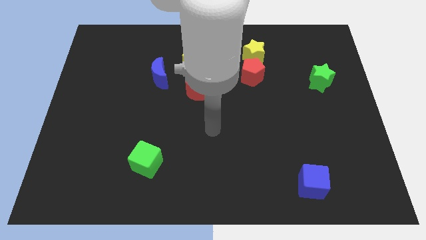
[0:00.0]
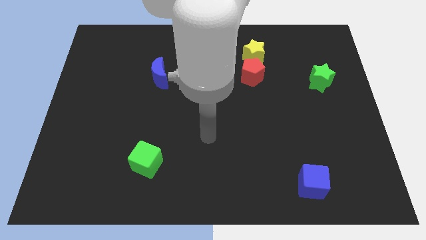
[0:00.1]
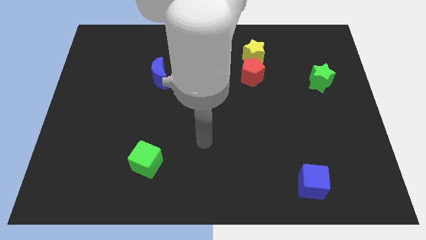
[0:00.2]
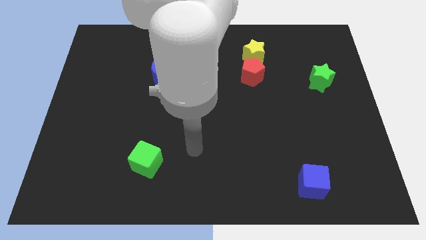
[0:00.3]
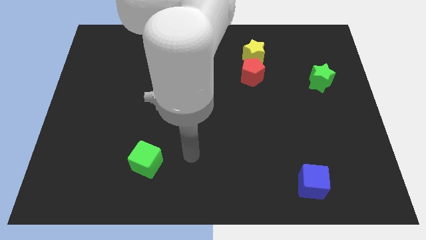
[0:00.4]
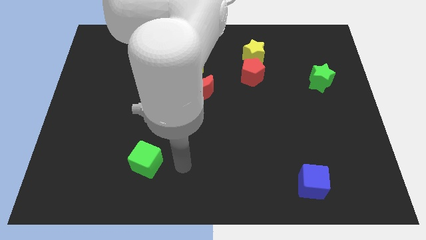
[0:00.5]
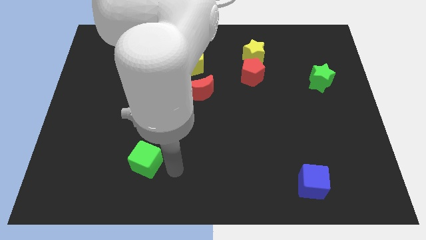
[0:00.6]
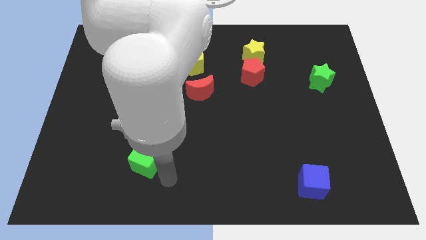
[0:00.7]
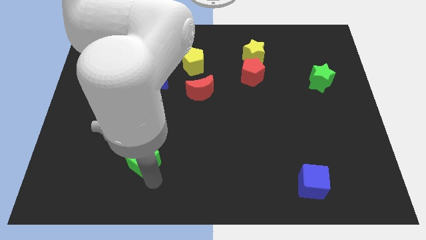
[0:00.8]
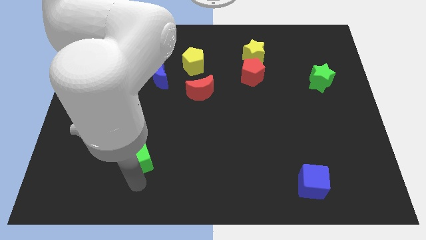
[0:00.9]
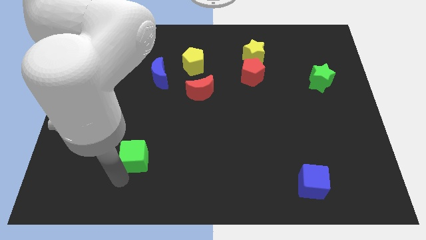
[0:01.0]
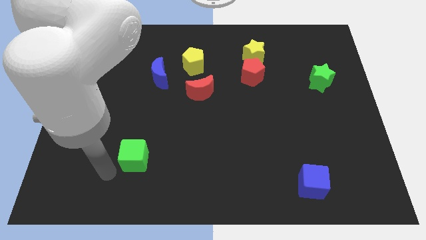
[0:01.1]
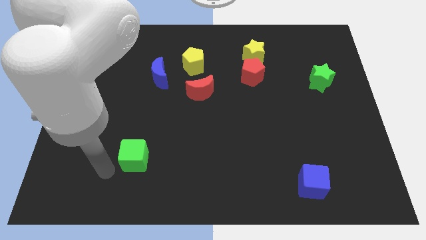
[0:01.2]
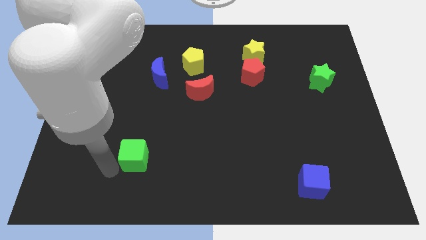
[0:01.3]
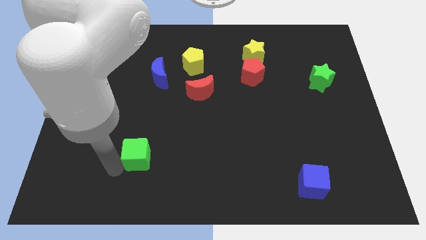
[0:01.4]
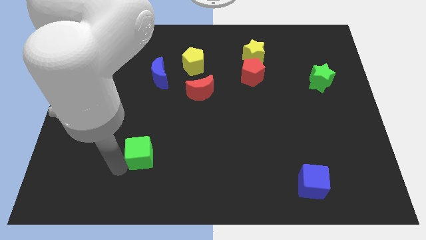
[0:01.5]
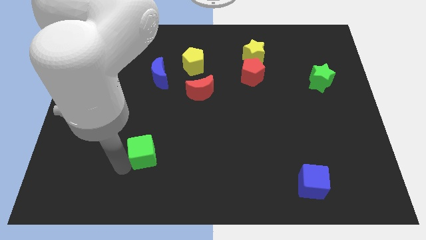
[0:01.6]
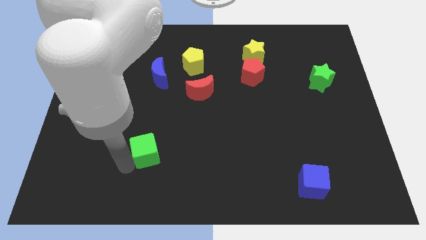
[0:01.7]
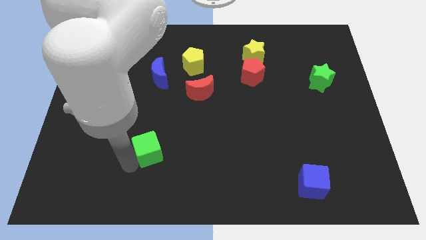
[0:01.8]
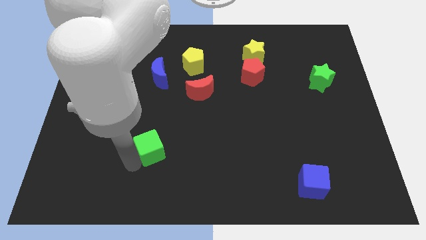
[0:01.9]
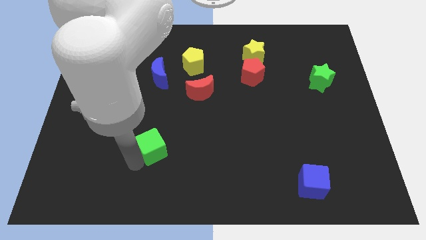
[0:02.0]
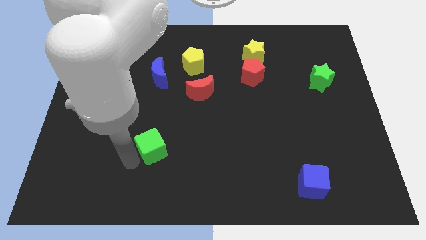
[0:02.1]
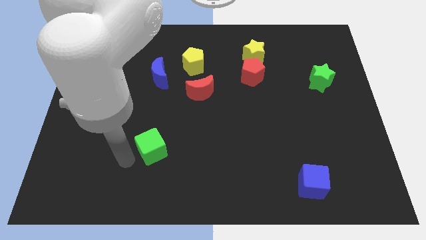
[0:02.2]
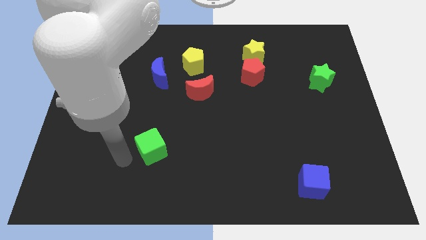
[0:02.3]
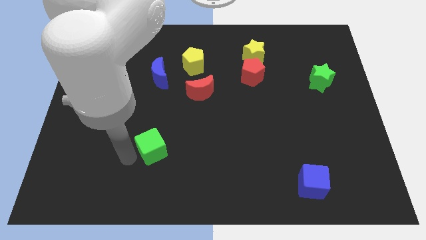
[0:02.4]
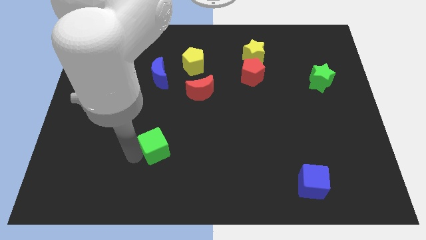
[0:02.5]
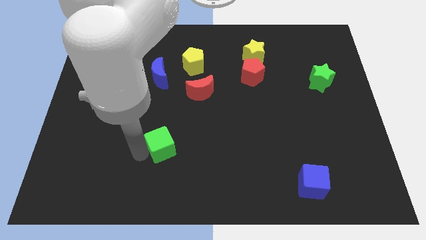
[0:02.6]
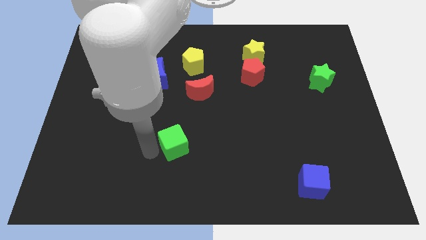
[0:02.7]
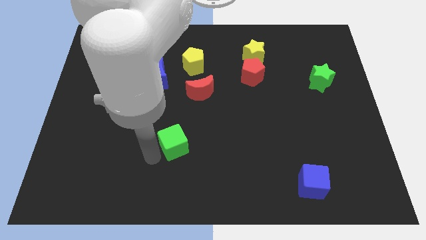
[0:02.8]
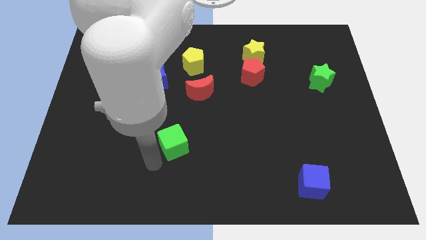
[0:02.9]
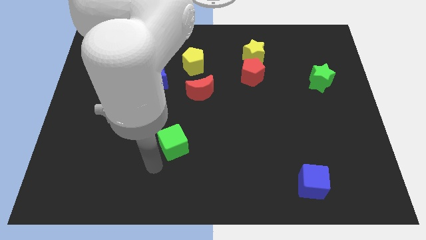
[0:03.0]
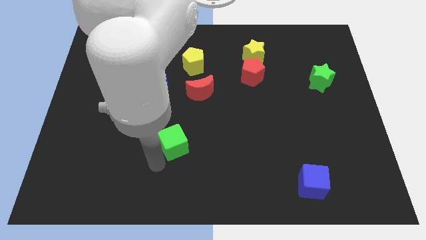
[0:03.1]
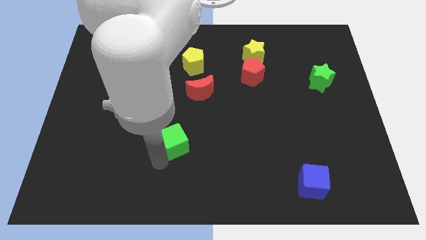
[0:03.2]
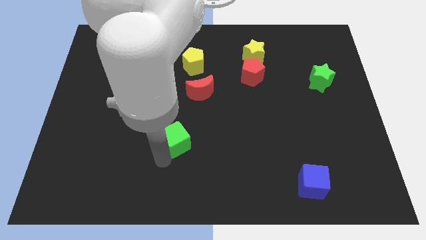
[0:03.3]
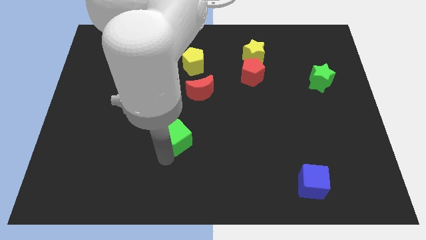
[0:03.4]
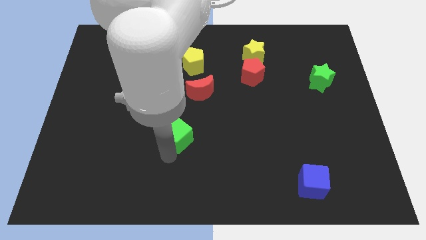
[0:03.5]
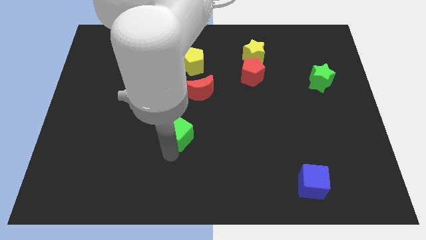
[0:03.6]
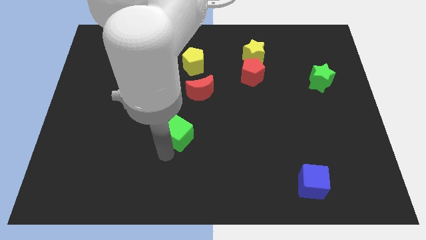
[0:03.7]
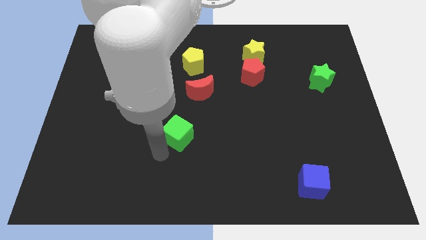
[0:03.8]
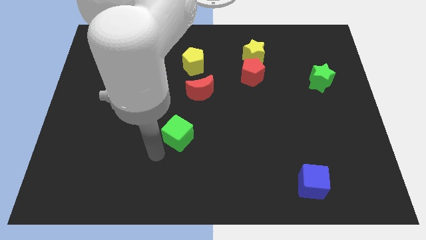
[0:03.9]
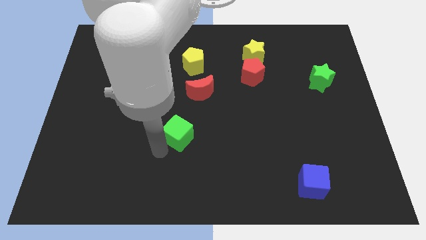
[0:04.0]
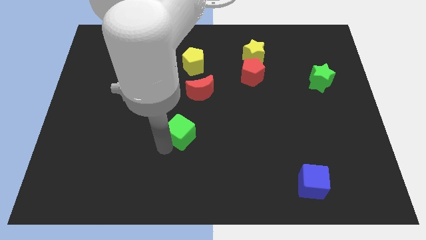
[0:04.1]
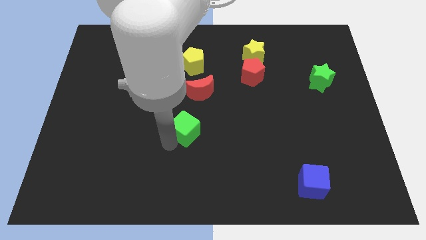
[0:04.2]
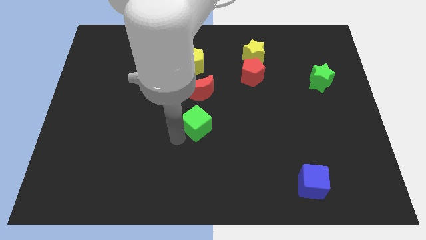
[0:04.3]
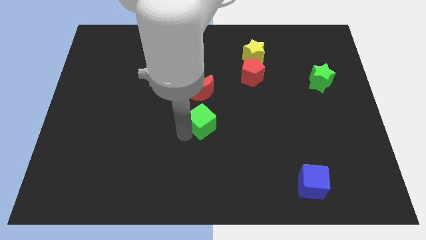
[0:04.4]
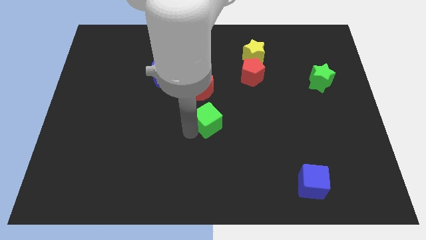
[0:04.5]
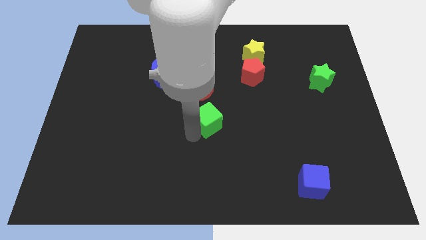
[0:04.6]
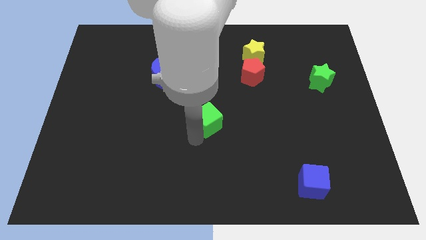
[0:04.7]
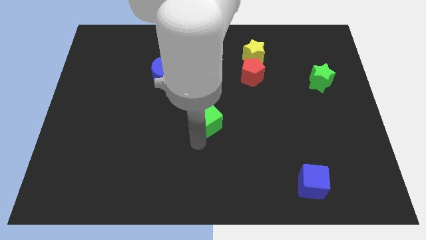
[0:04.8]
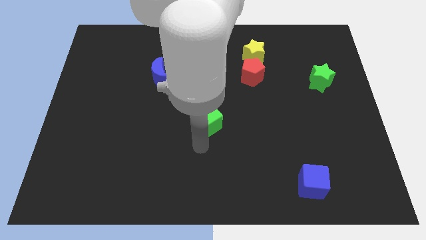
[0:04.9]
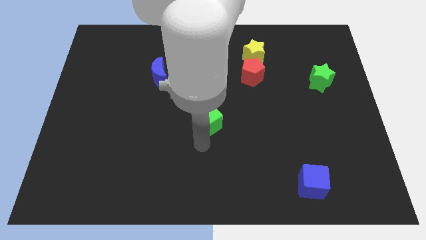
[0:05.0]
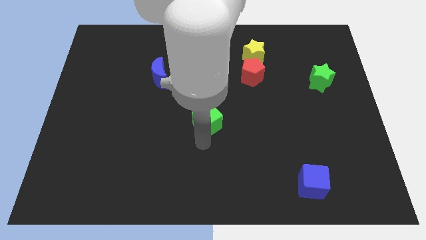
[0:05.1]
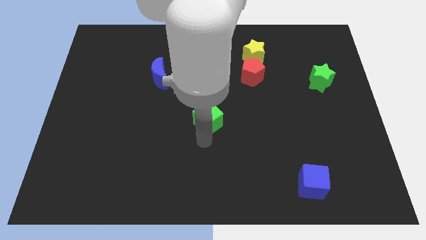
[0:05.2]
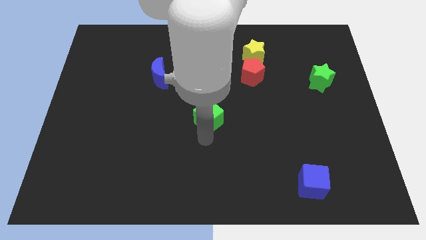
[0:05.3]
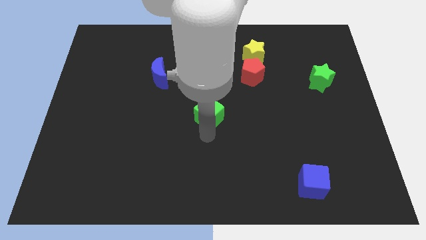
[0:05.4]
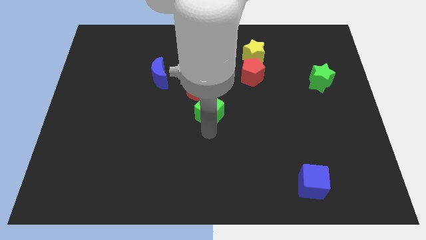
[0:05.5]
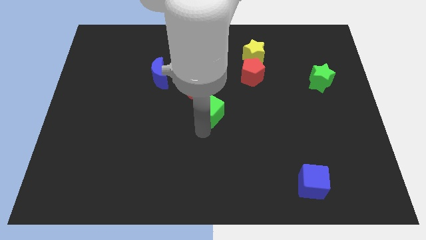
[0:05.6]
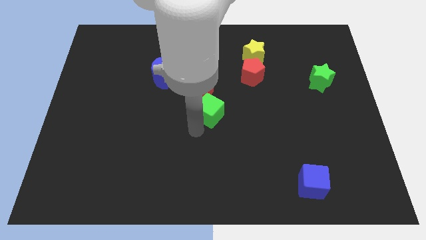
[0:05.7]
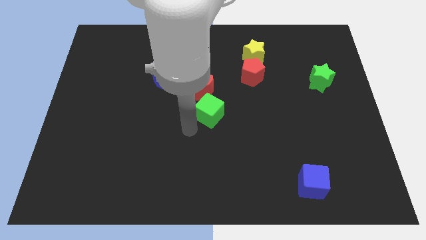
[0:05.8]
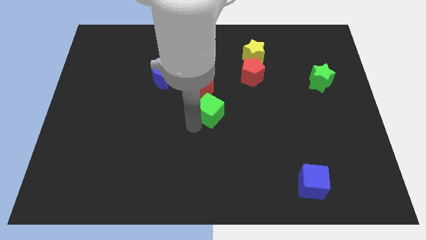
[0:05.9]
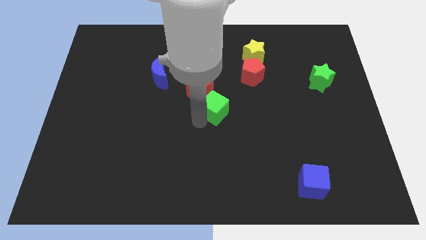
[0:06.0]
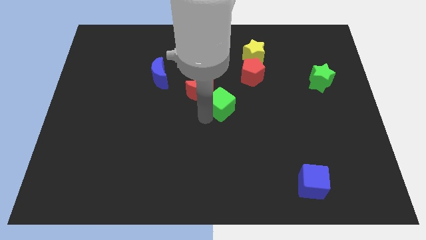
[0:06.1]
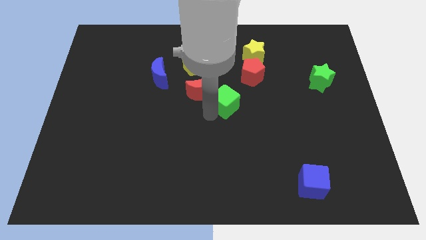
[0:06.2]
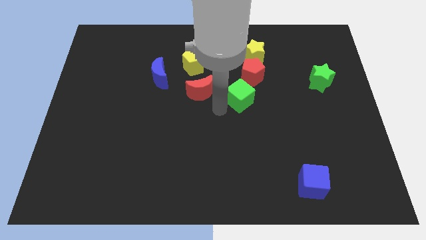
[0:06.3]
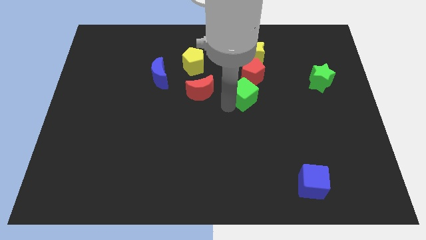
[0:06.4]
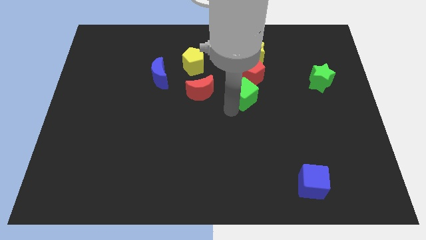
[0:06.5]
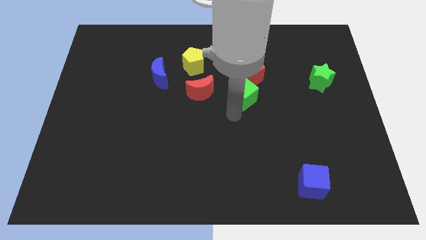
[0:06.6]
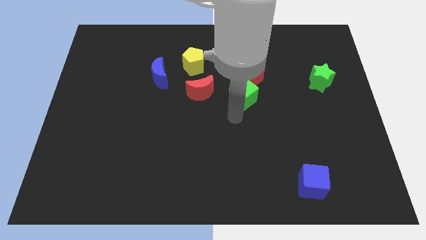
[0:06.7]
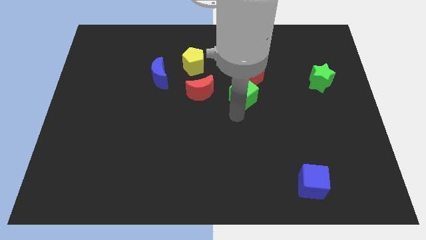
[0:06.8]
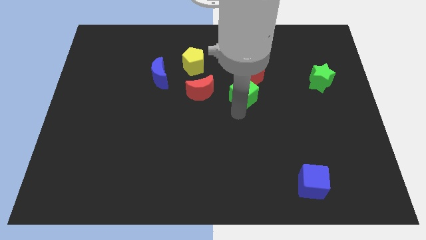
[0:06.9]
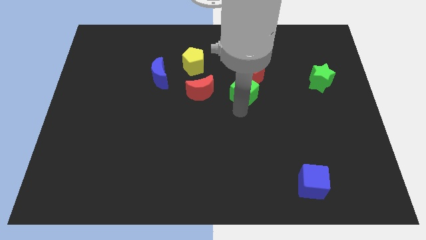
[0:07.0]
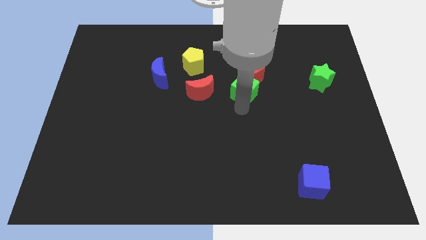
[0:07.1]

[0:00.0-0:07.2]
move the green cube towards the red pentagon
